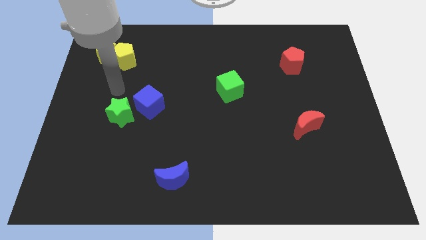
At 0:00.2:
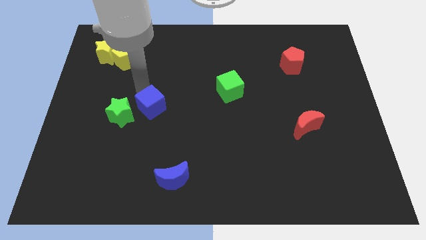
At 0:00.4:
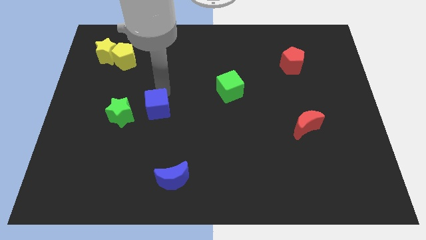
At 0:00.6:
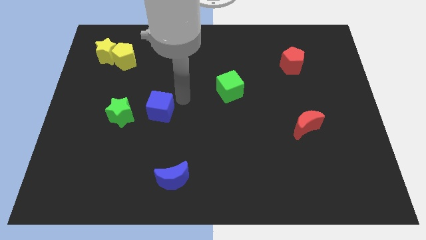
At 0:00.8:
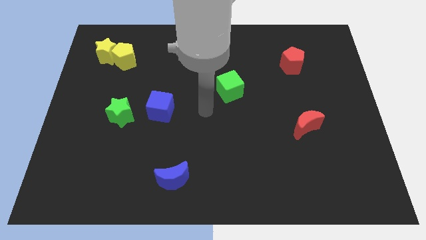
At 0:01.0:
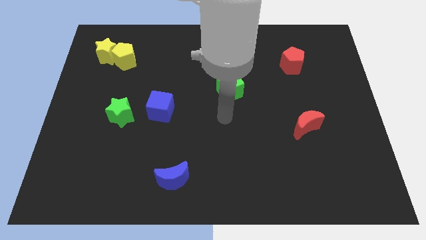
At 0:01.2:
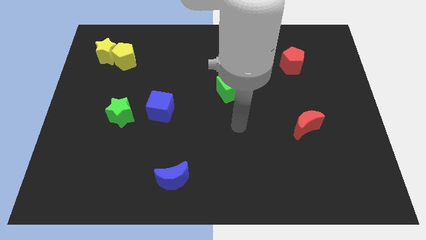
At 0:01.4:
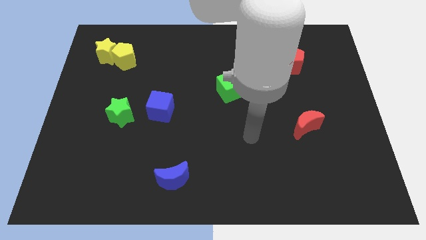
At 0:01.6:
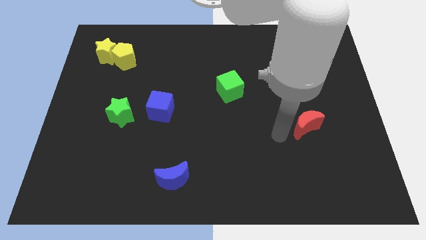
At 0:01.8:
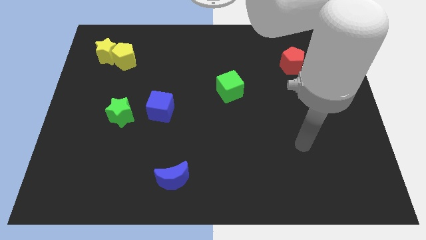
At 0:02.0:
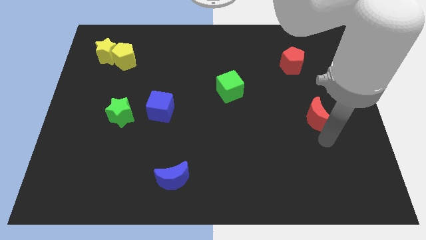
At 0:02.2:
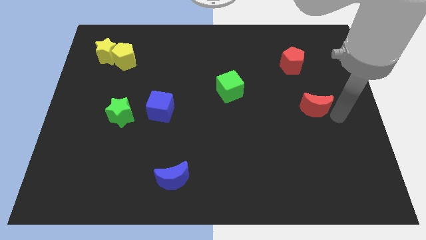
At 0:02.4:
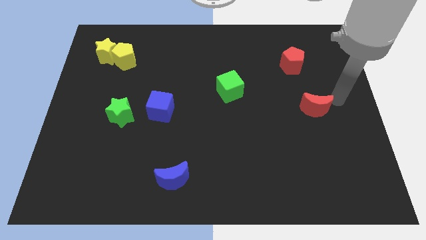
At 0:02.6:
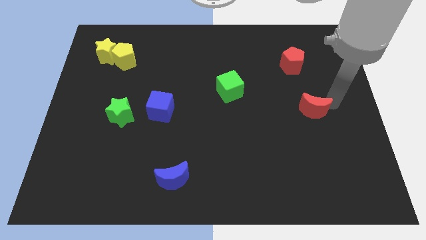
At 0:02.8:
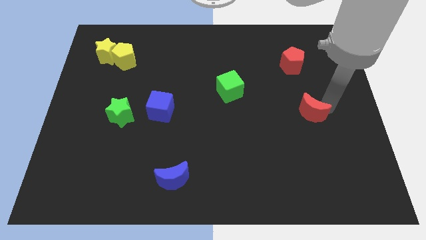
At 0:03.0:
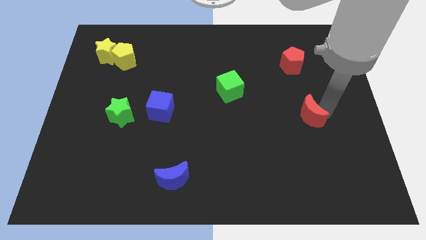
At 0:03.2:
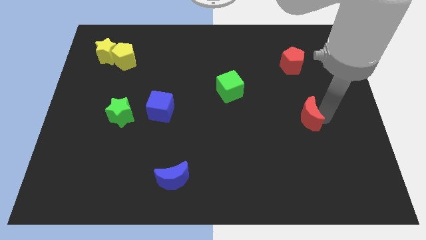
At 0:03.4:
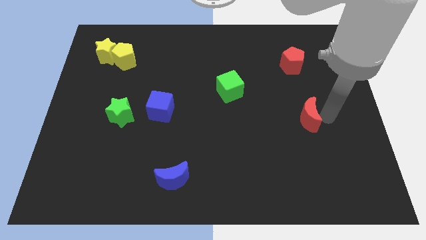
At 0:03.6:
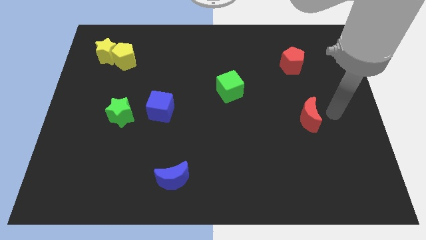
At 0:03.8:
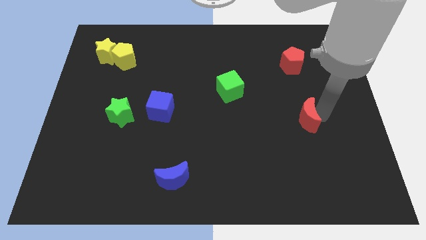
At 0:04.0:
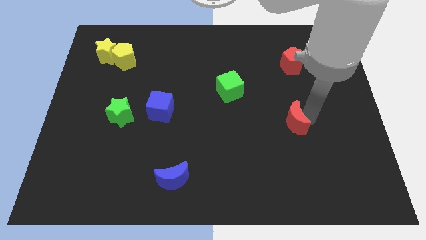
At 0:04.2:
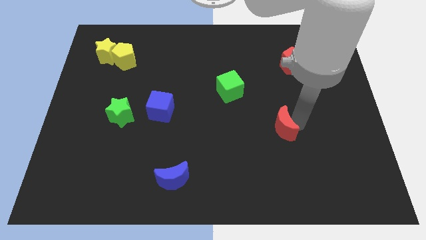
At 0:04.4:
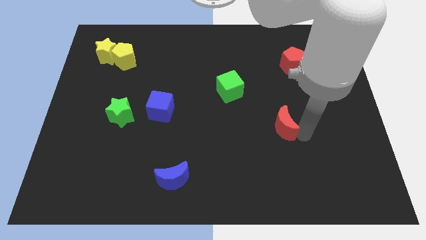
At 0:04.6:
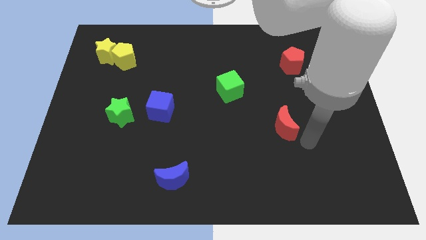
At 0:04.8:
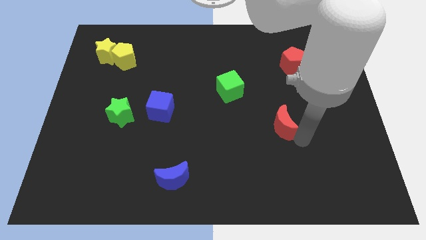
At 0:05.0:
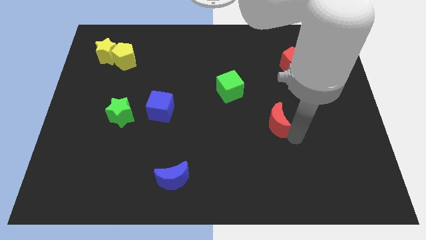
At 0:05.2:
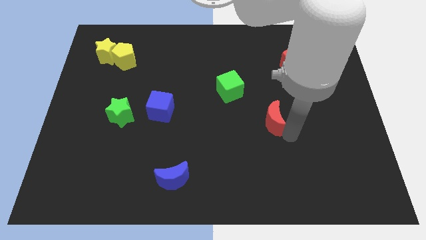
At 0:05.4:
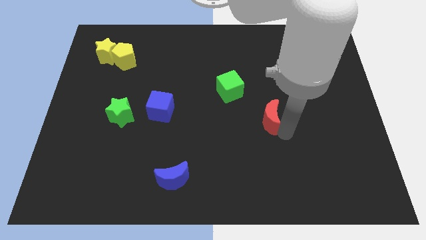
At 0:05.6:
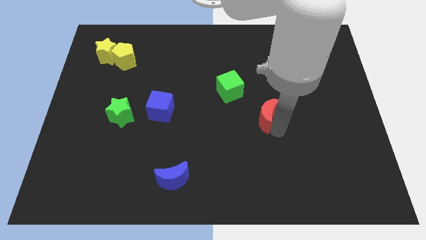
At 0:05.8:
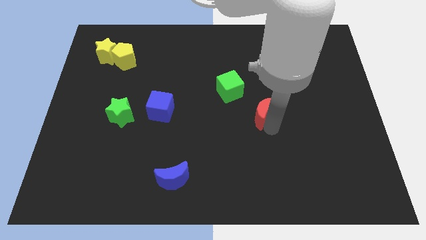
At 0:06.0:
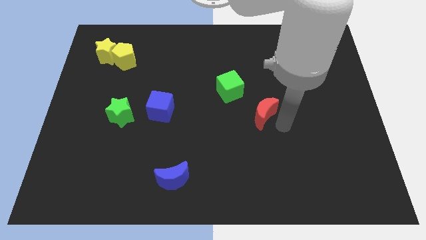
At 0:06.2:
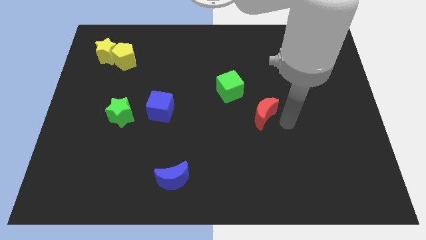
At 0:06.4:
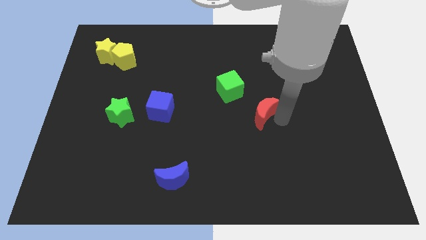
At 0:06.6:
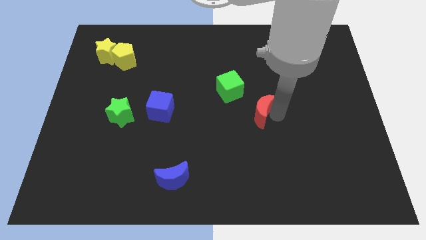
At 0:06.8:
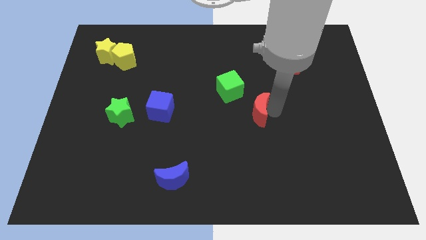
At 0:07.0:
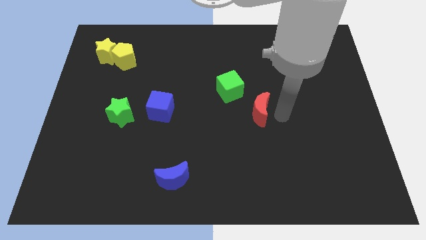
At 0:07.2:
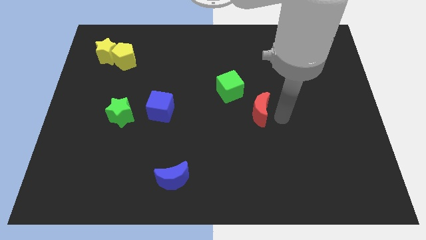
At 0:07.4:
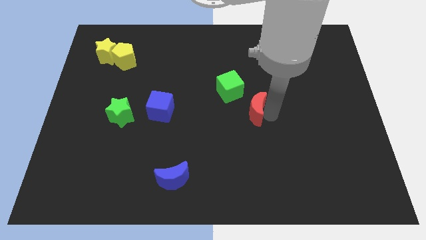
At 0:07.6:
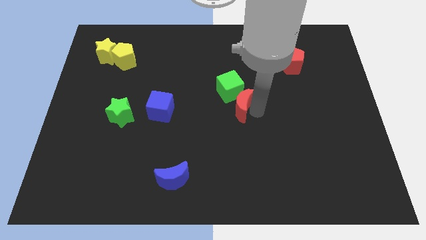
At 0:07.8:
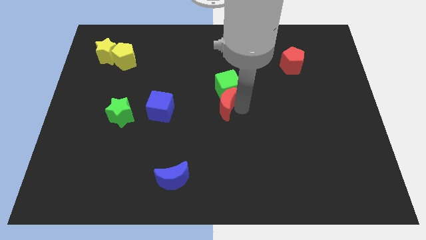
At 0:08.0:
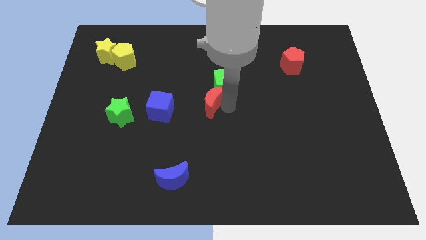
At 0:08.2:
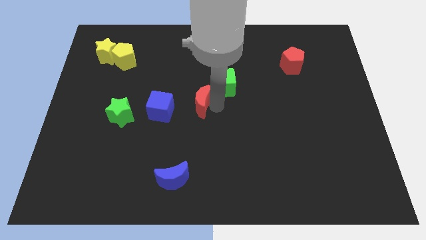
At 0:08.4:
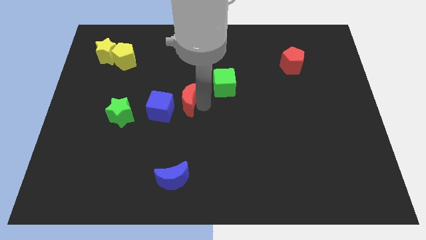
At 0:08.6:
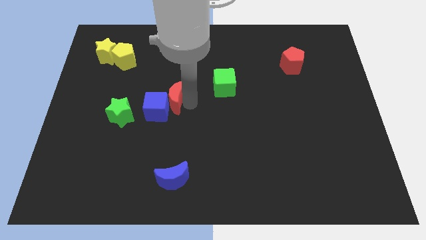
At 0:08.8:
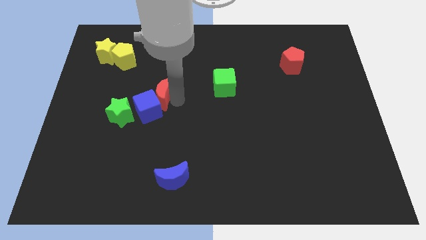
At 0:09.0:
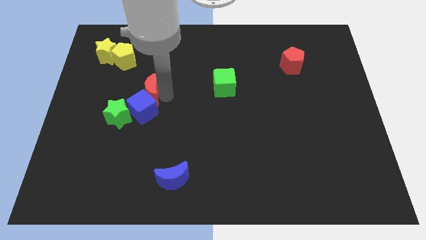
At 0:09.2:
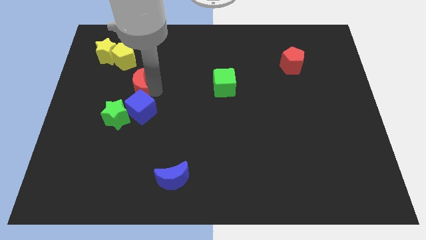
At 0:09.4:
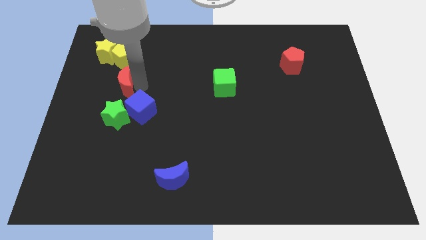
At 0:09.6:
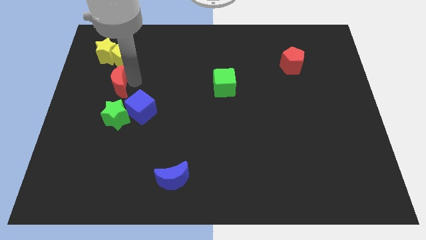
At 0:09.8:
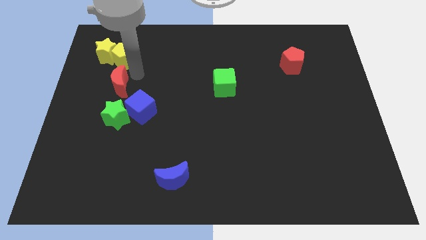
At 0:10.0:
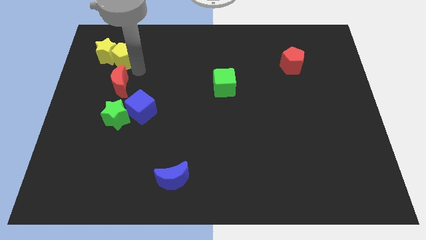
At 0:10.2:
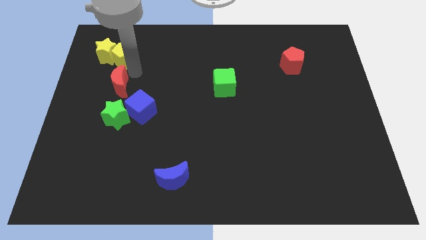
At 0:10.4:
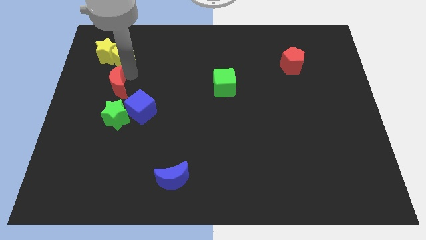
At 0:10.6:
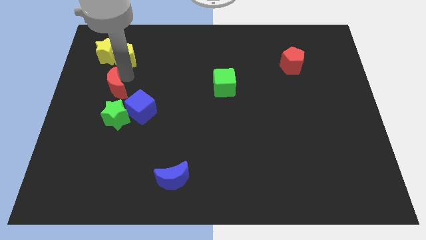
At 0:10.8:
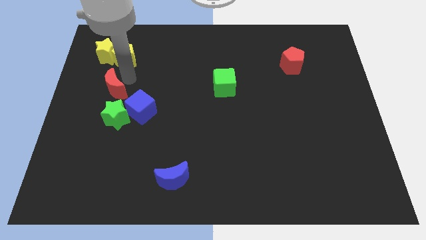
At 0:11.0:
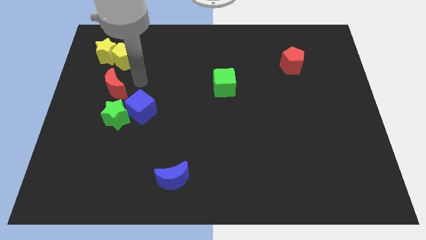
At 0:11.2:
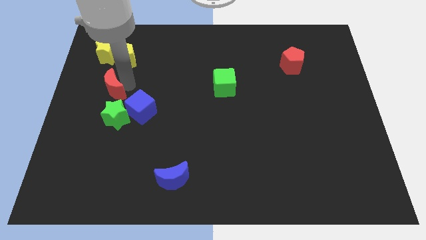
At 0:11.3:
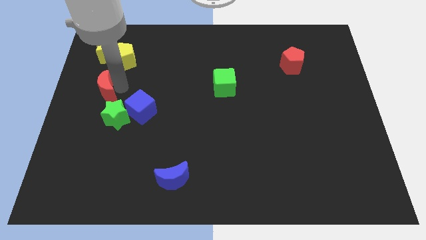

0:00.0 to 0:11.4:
push the red moon to the left side
